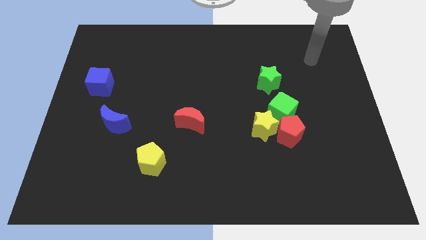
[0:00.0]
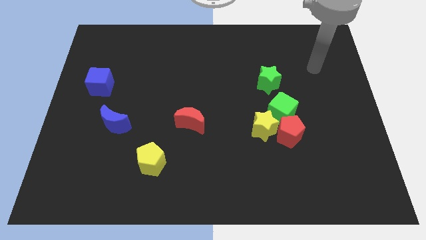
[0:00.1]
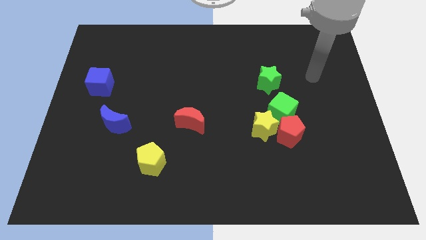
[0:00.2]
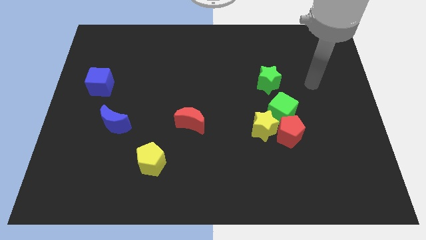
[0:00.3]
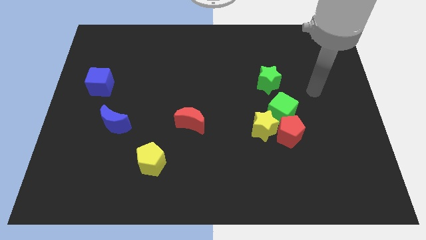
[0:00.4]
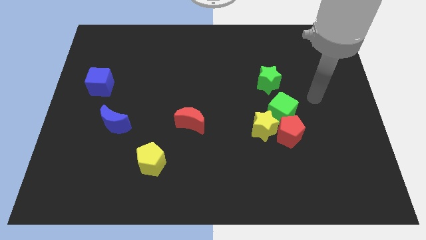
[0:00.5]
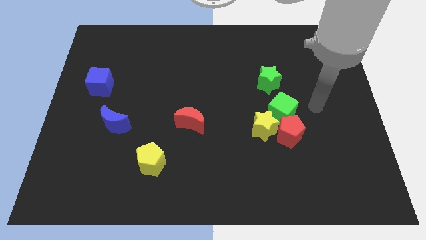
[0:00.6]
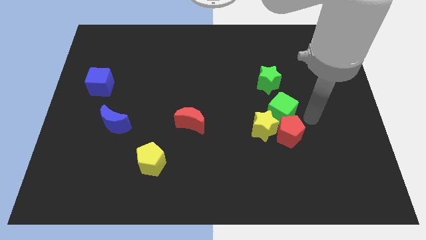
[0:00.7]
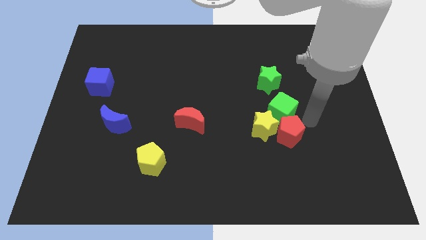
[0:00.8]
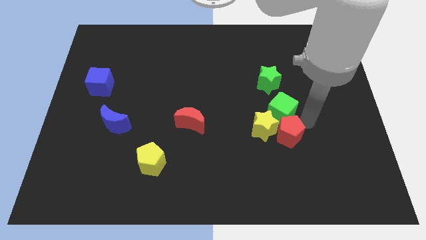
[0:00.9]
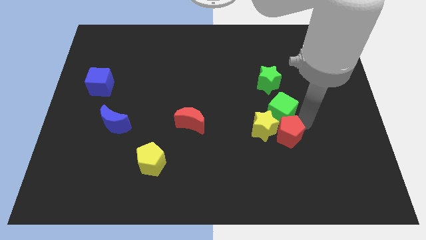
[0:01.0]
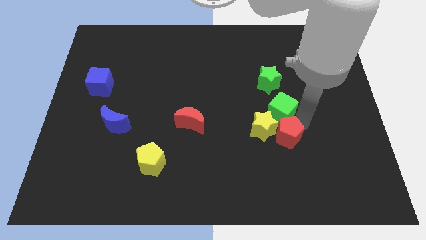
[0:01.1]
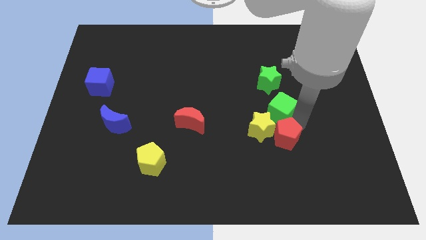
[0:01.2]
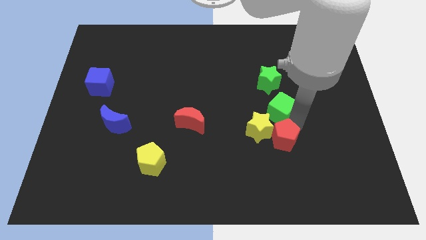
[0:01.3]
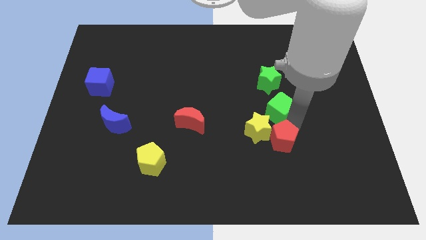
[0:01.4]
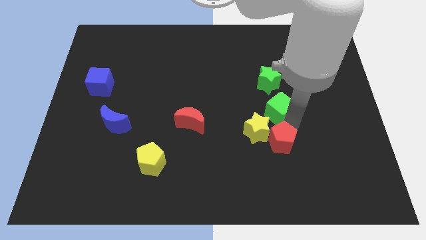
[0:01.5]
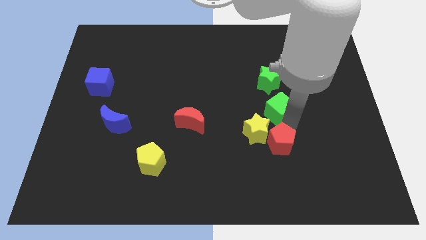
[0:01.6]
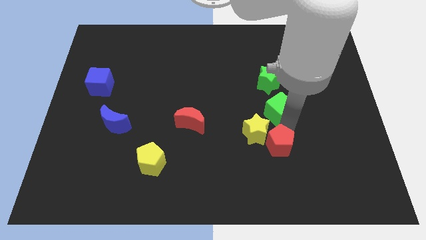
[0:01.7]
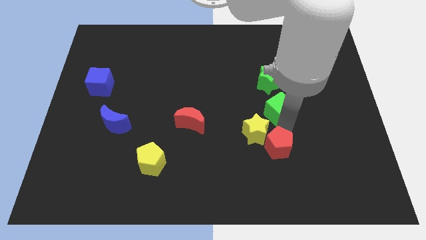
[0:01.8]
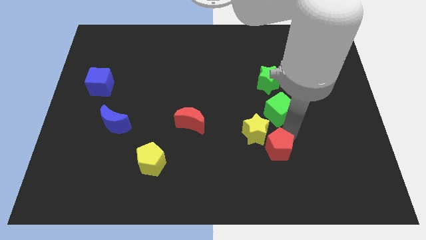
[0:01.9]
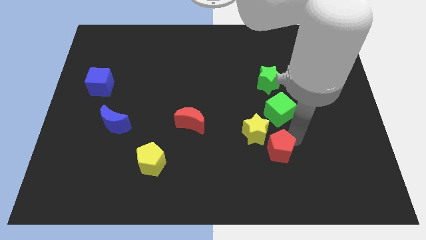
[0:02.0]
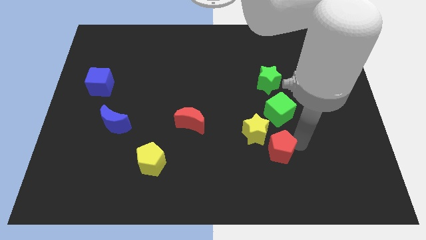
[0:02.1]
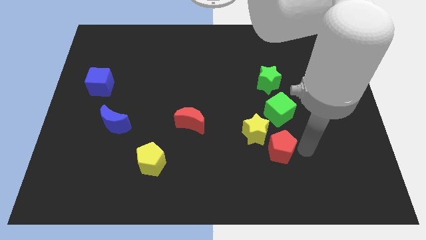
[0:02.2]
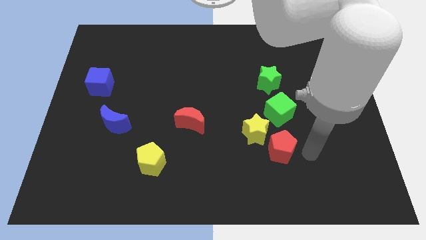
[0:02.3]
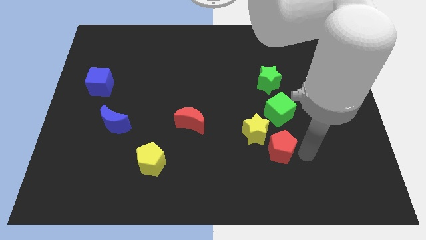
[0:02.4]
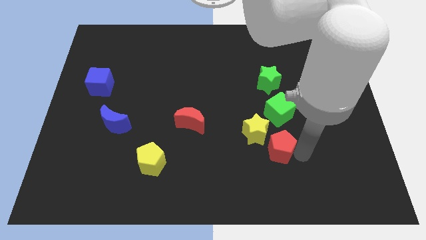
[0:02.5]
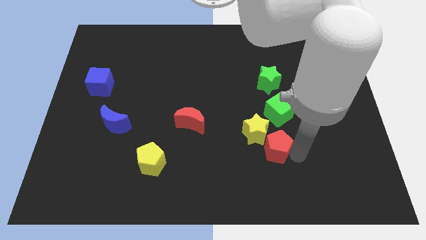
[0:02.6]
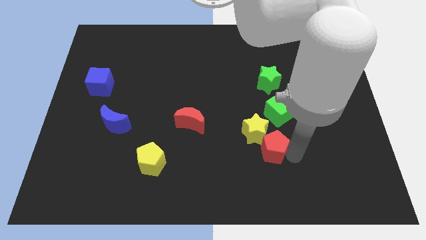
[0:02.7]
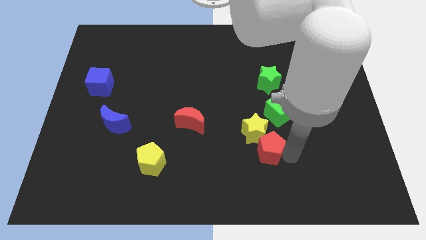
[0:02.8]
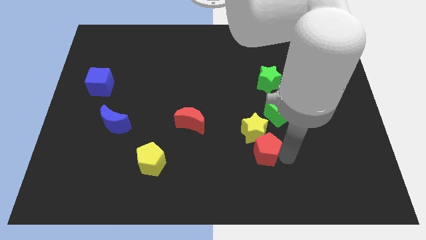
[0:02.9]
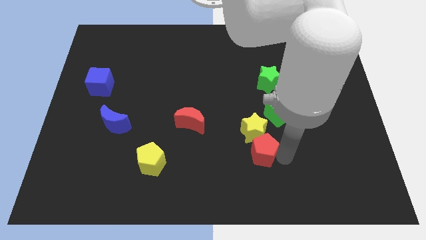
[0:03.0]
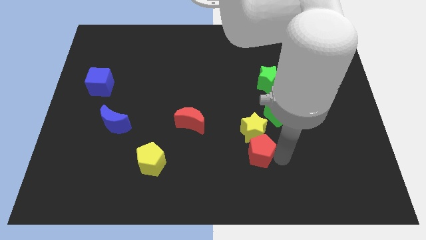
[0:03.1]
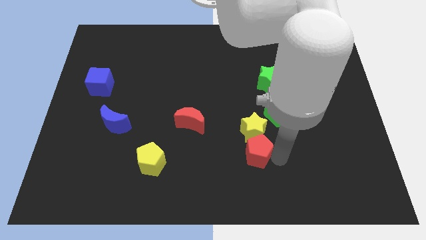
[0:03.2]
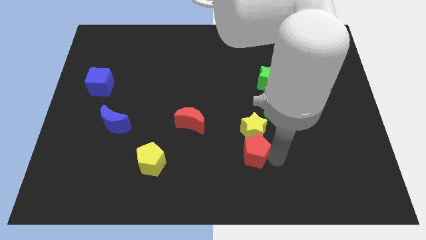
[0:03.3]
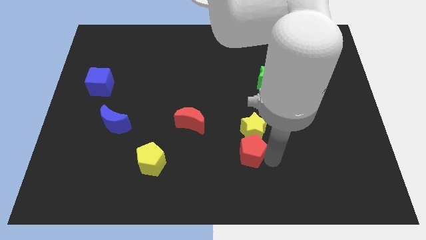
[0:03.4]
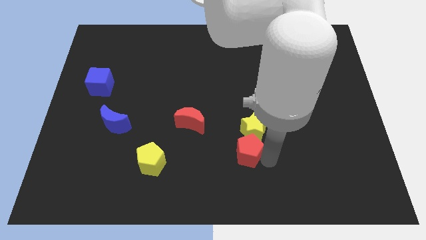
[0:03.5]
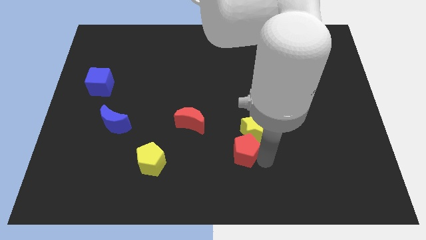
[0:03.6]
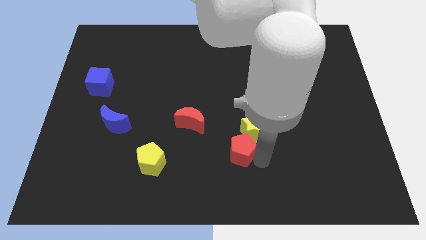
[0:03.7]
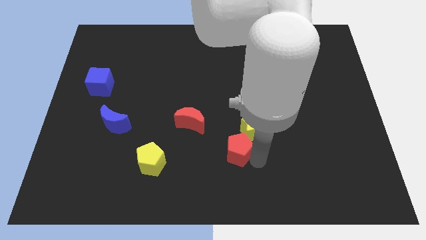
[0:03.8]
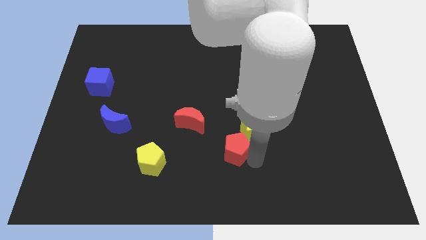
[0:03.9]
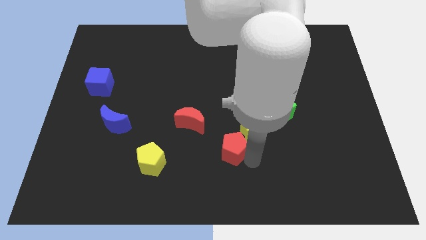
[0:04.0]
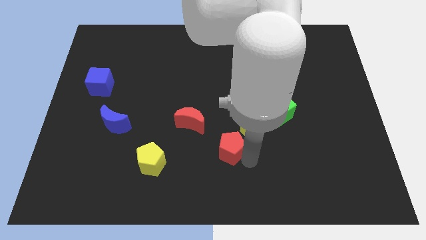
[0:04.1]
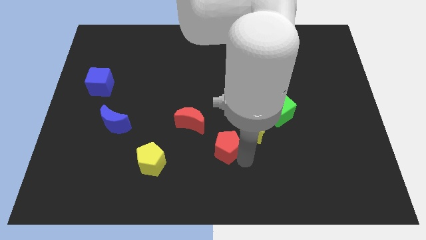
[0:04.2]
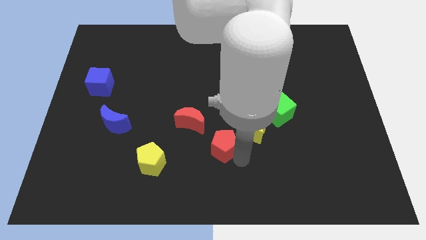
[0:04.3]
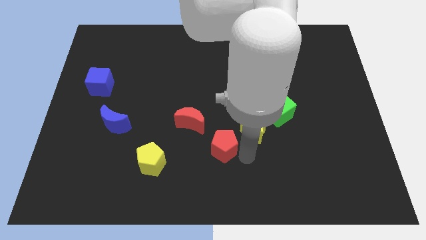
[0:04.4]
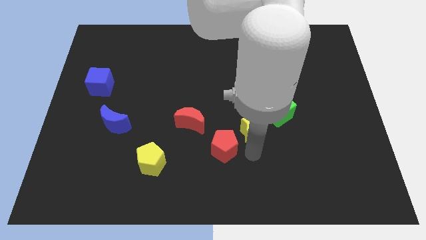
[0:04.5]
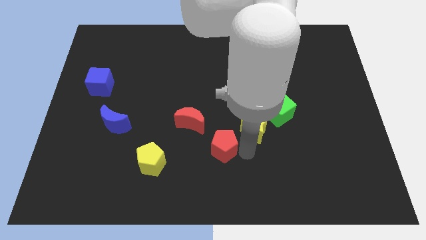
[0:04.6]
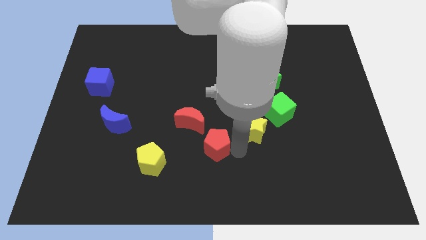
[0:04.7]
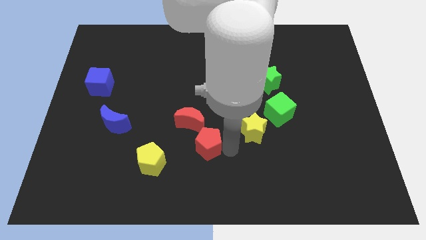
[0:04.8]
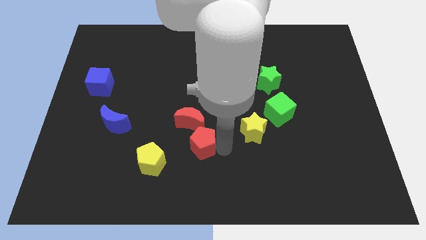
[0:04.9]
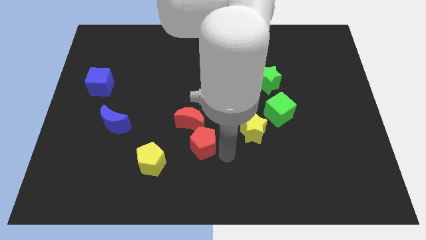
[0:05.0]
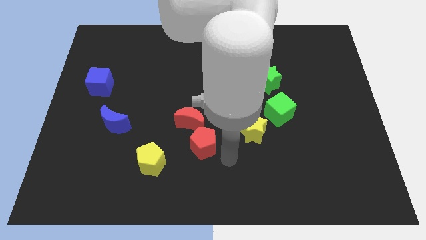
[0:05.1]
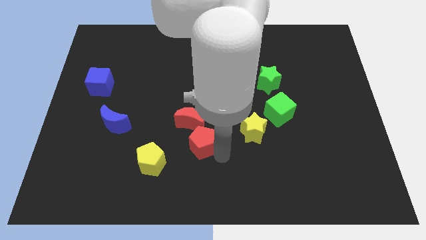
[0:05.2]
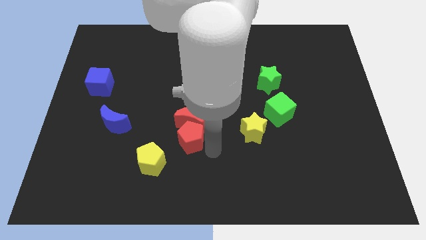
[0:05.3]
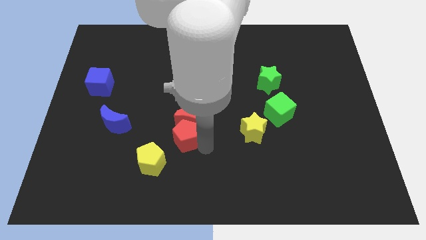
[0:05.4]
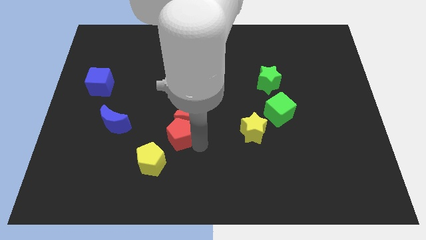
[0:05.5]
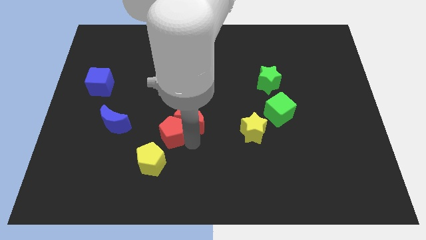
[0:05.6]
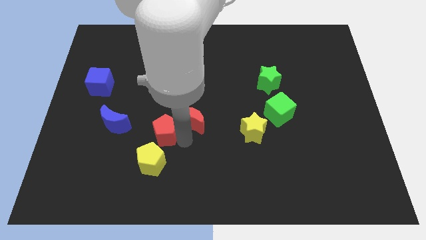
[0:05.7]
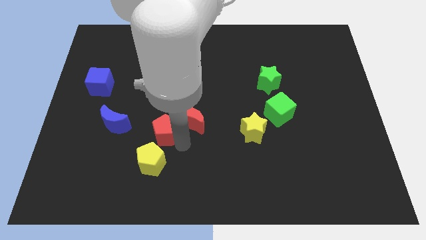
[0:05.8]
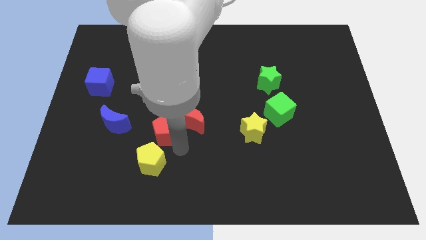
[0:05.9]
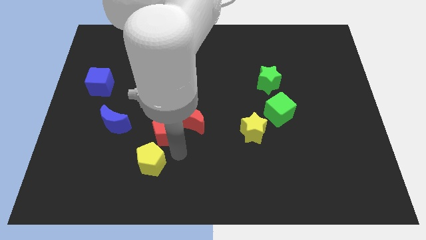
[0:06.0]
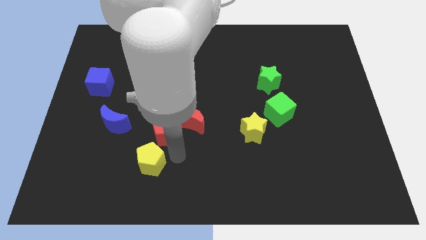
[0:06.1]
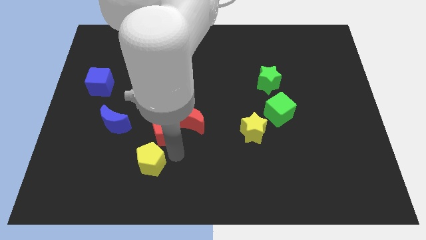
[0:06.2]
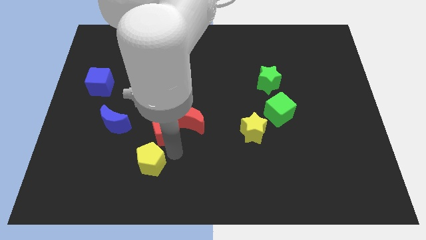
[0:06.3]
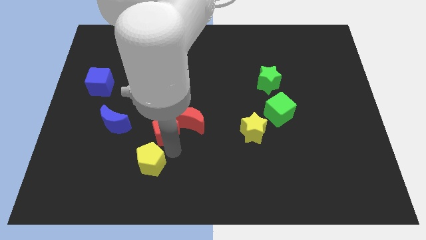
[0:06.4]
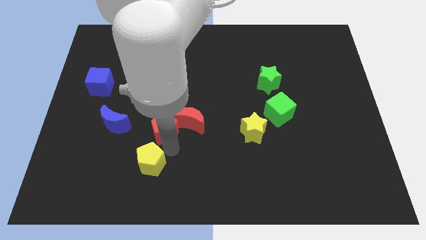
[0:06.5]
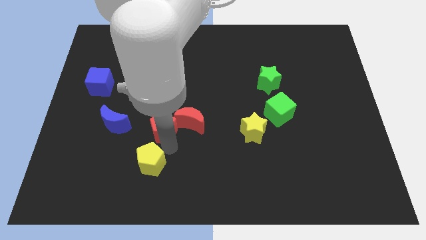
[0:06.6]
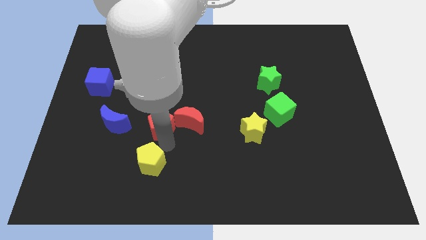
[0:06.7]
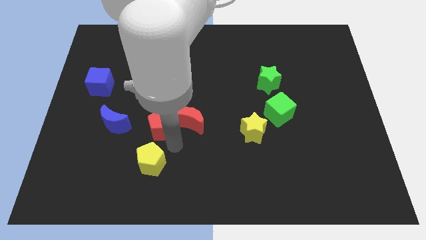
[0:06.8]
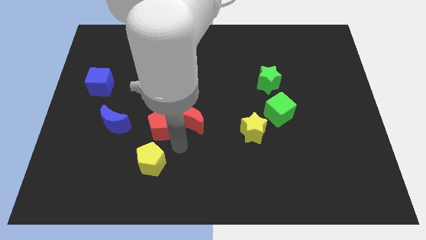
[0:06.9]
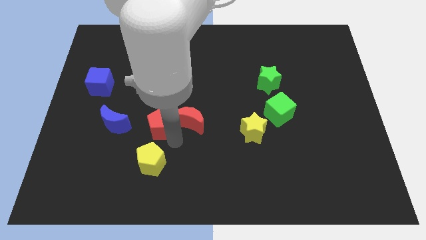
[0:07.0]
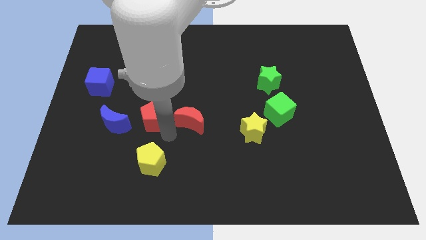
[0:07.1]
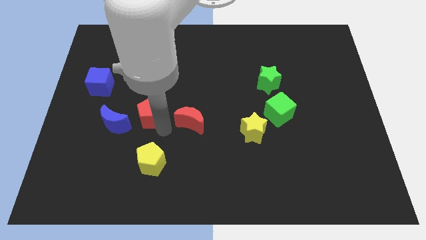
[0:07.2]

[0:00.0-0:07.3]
move the red pentagon to the top right of the blue moon
